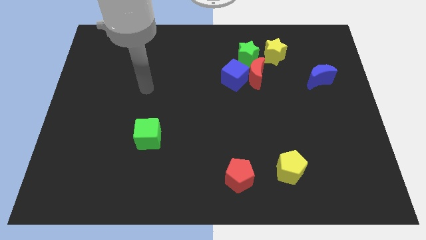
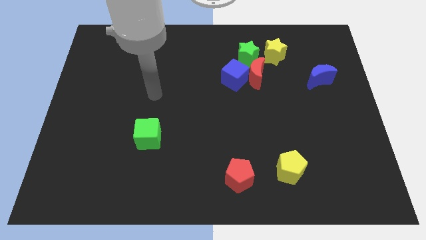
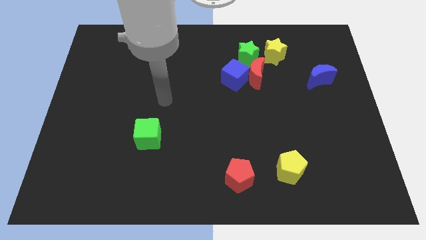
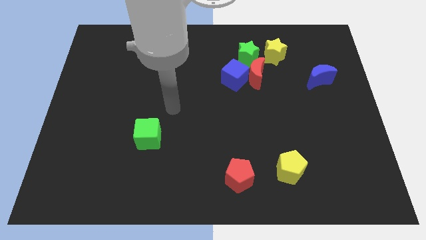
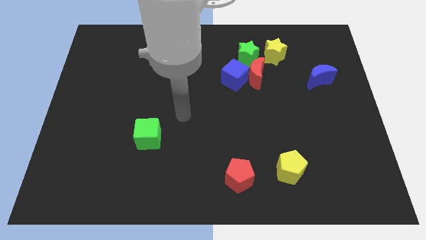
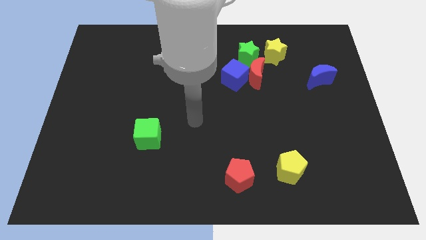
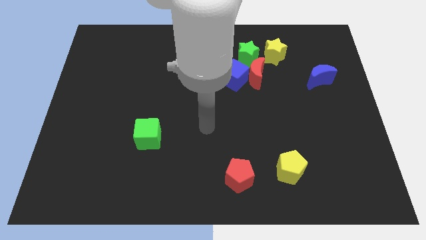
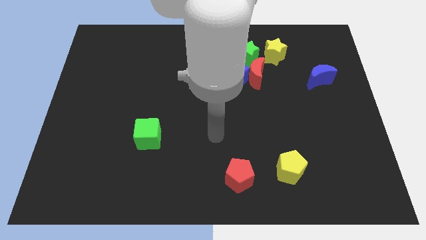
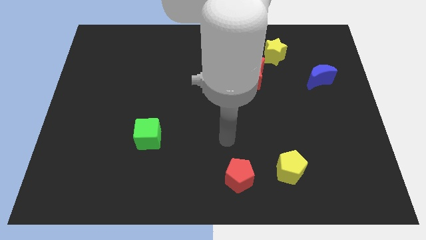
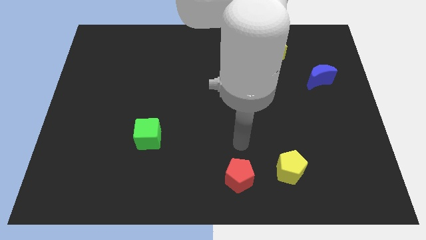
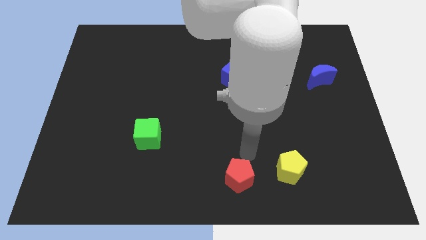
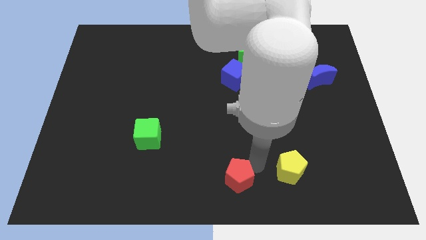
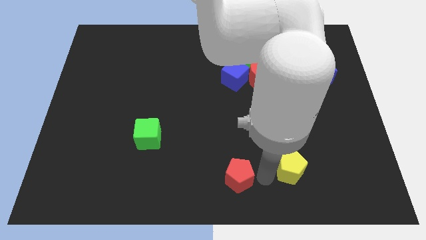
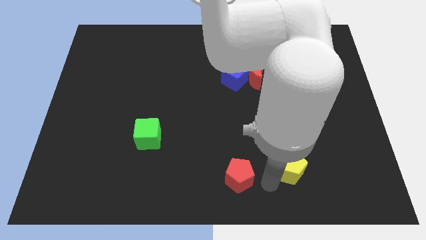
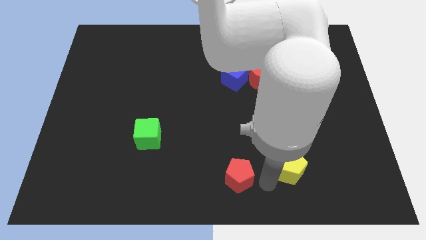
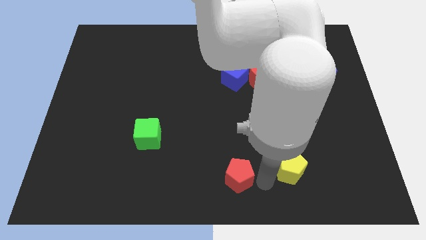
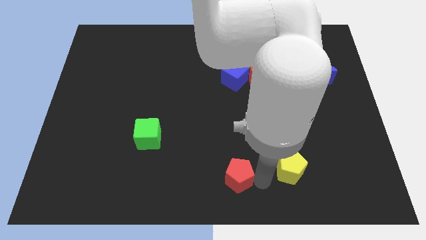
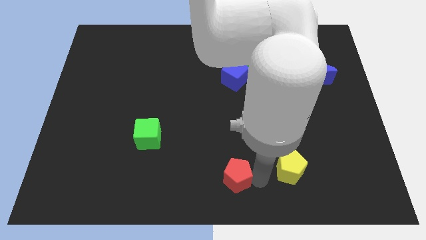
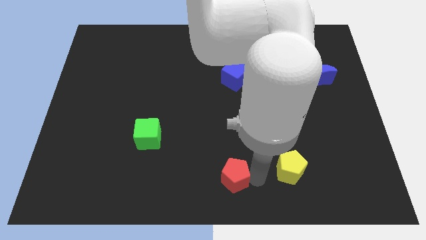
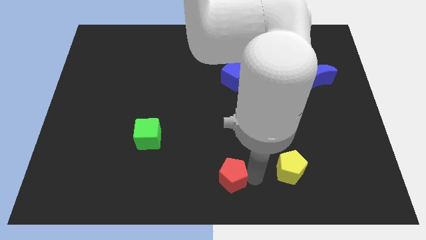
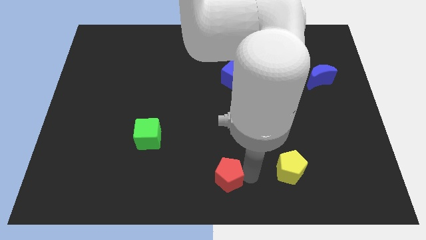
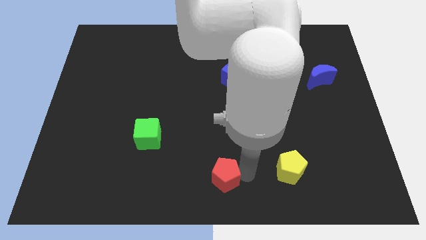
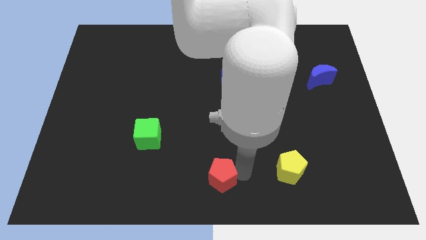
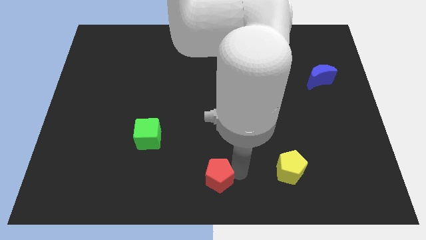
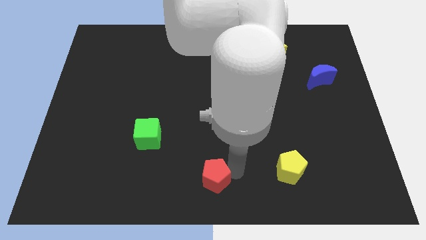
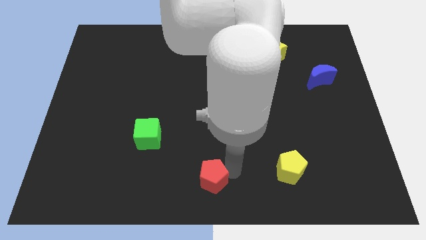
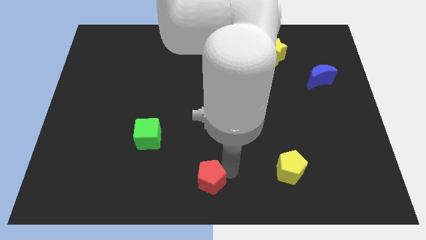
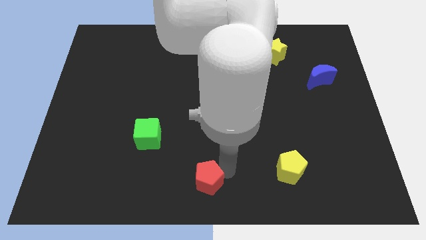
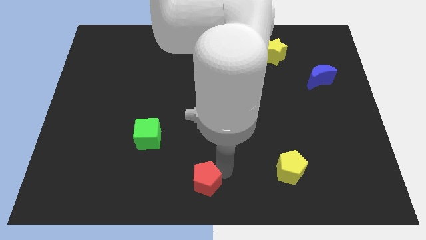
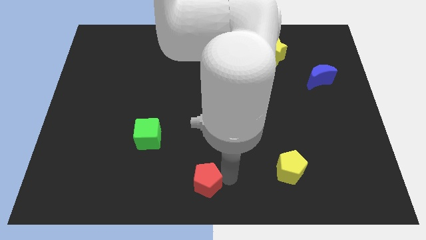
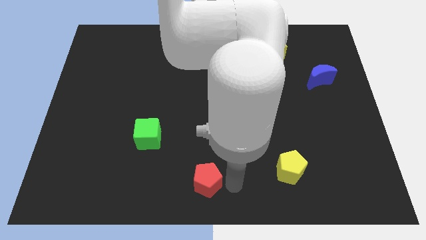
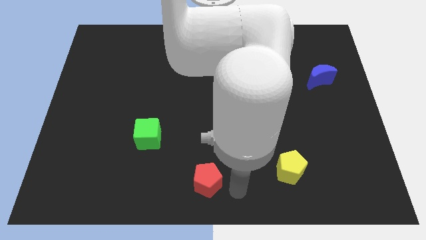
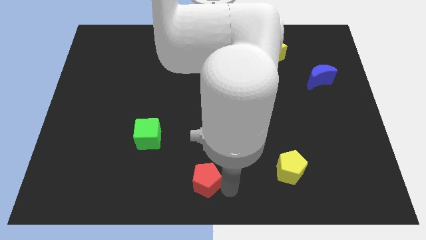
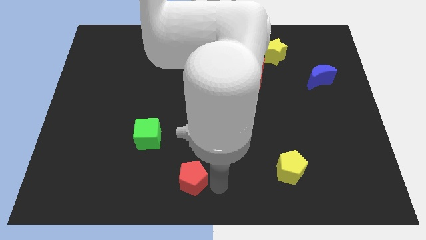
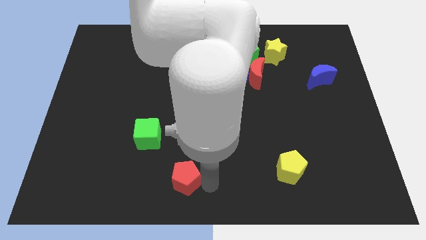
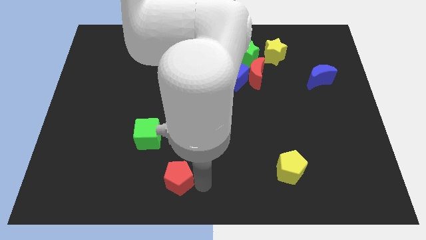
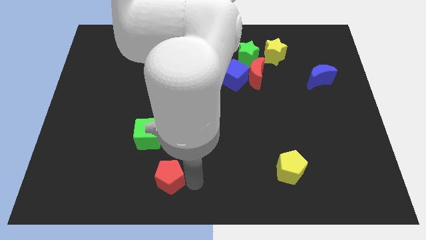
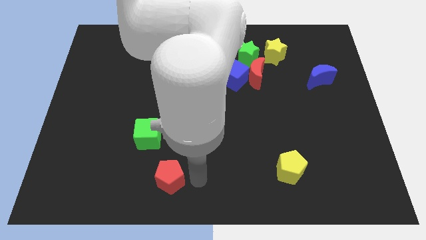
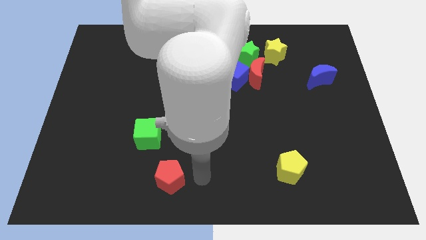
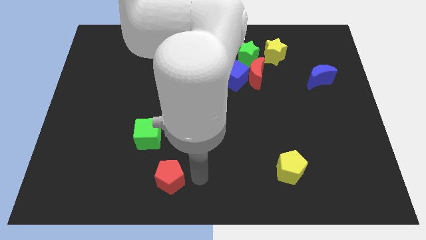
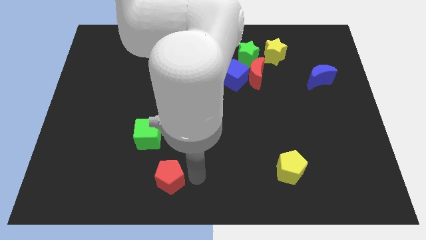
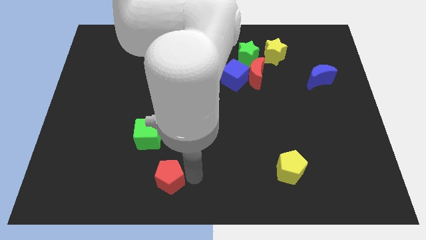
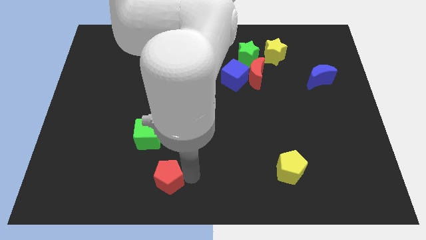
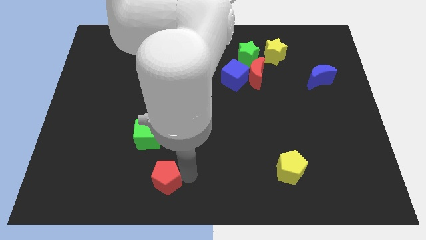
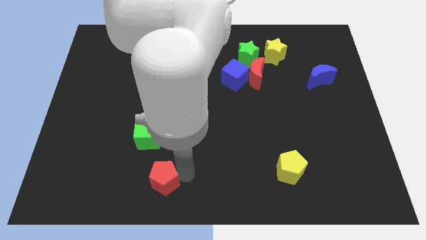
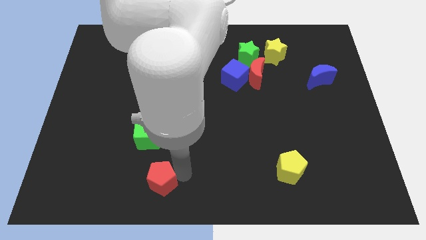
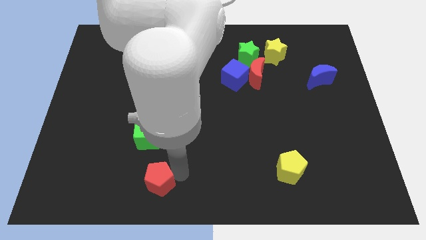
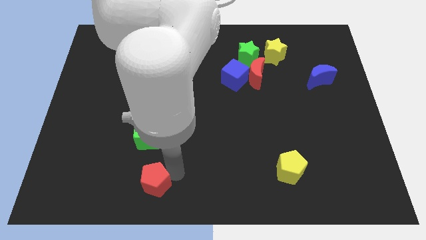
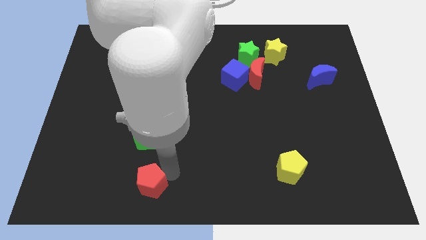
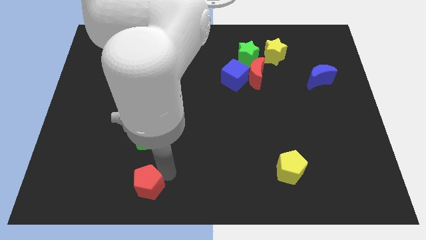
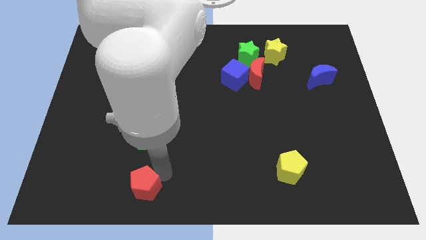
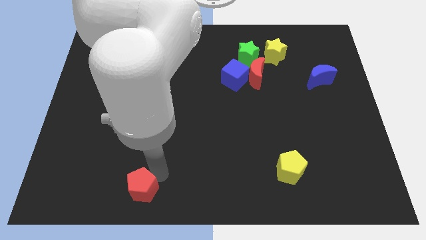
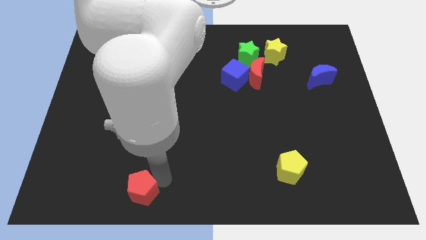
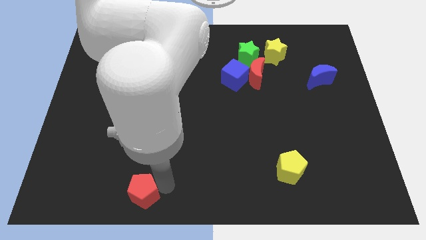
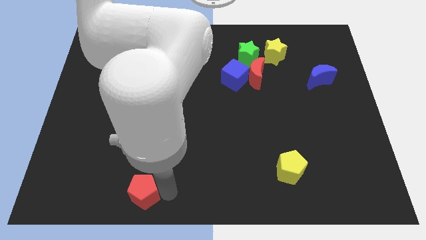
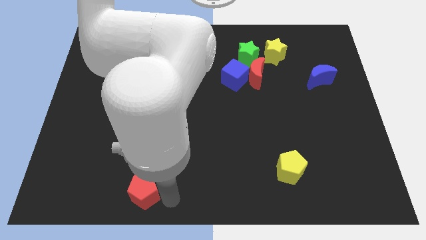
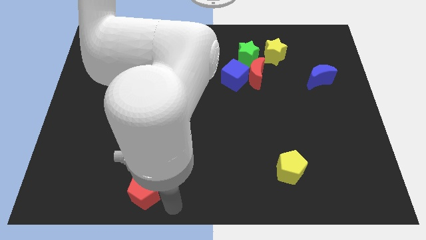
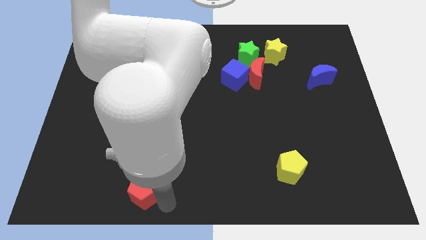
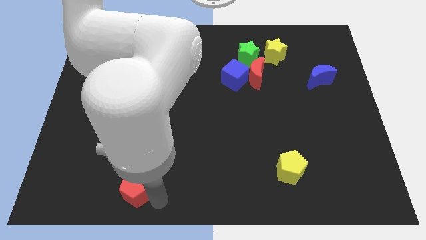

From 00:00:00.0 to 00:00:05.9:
move the red pentagon to the left

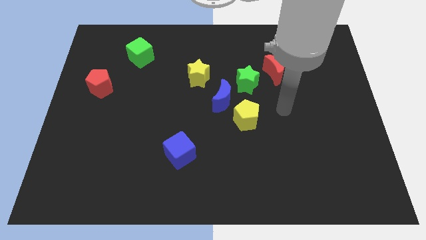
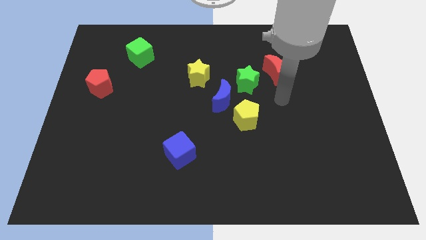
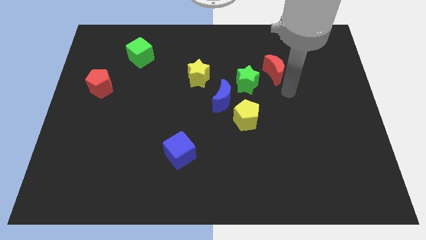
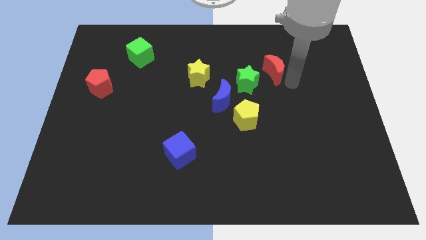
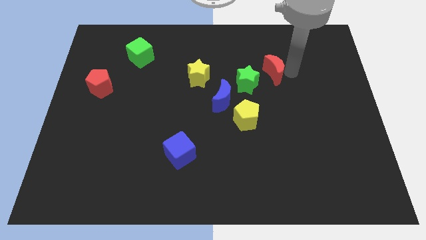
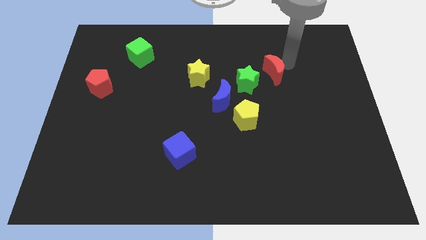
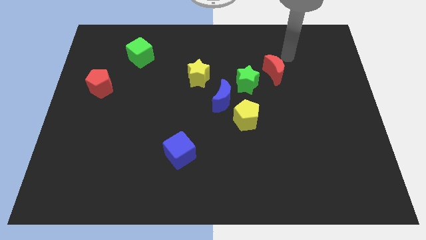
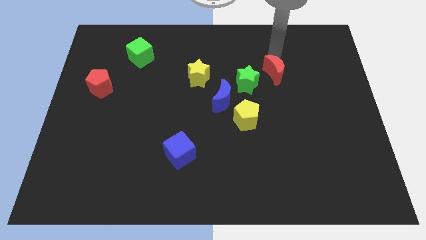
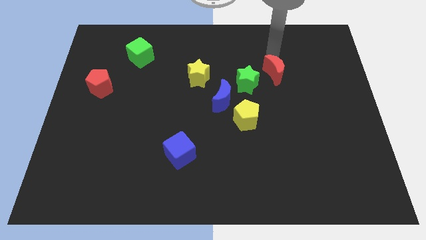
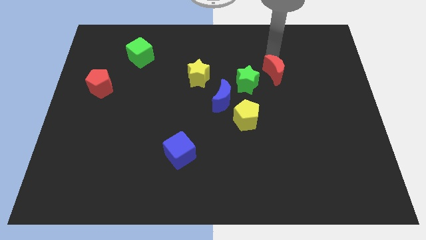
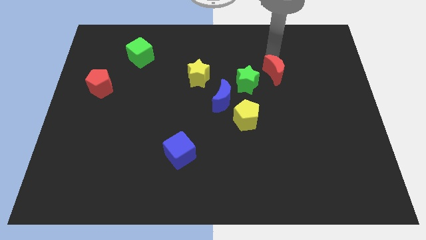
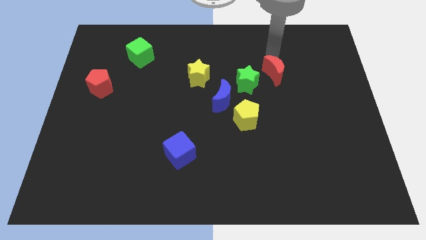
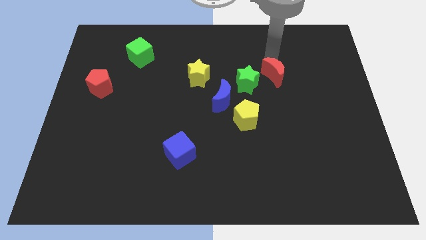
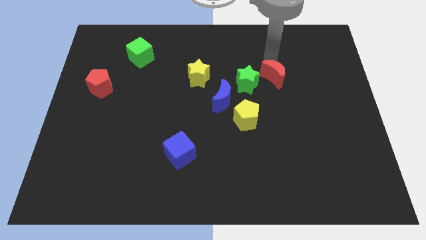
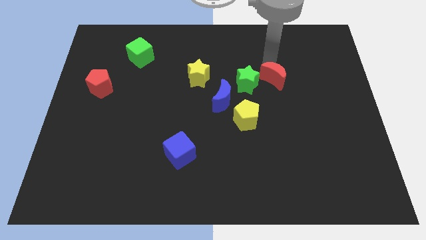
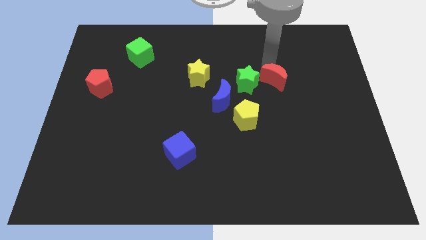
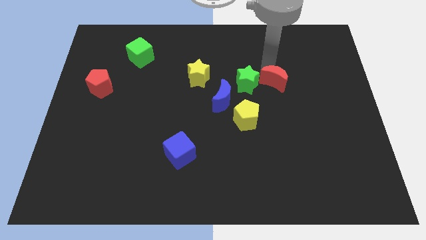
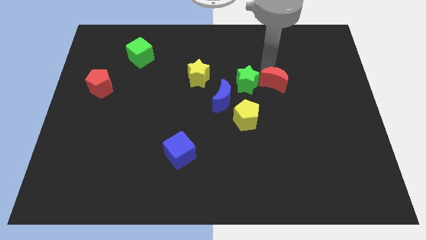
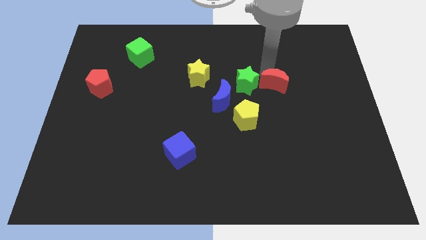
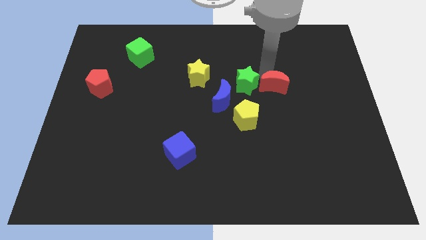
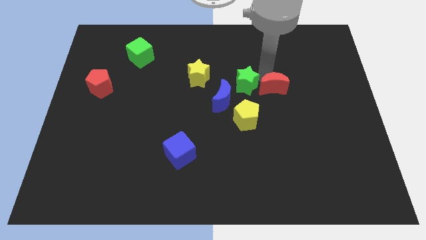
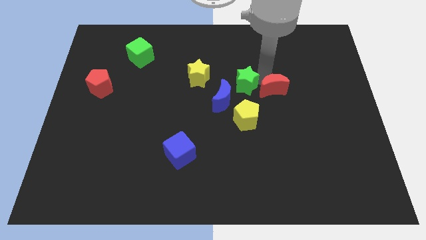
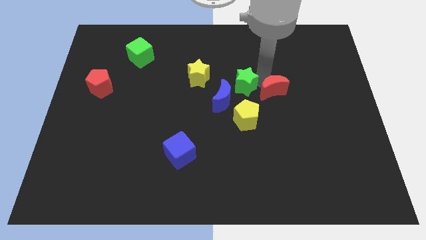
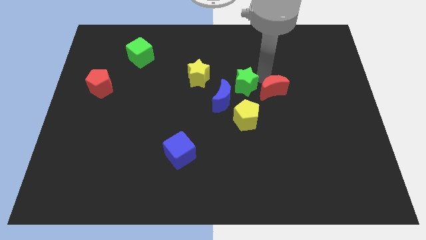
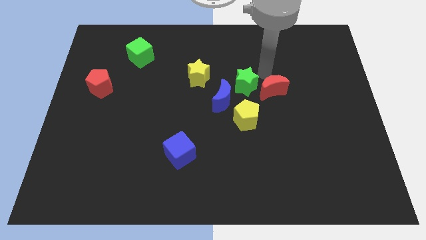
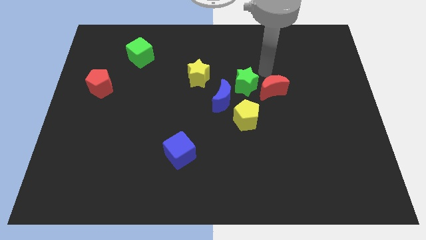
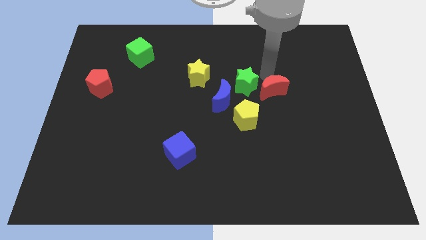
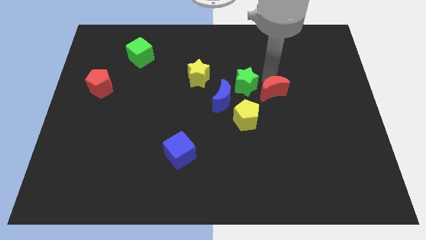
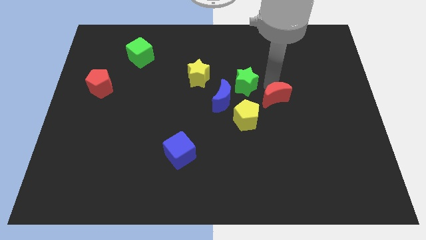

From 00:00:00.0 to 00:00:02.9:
move the red moon downwards a little
